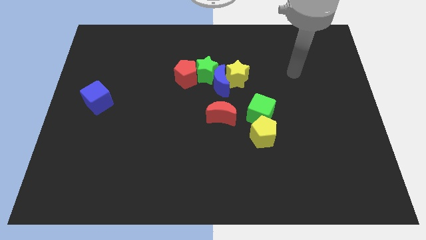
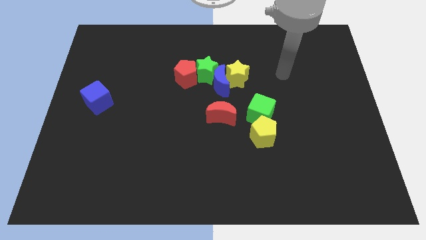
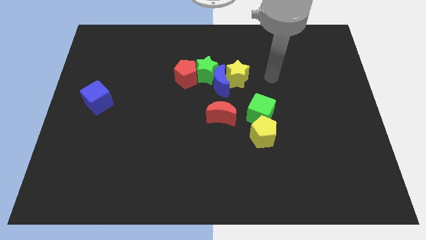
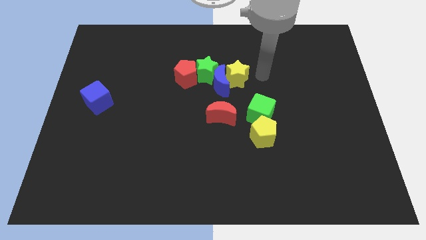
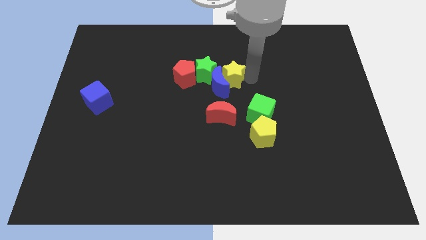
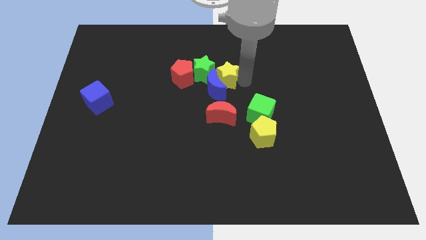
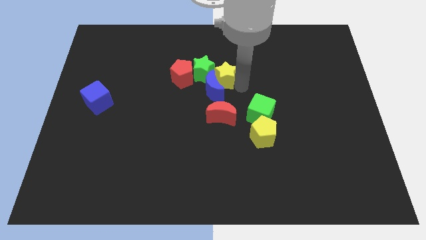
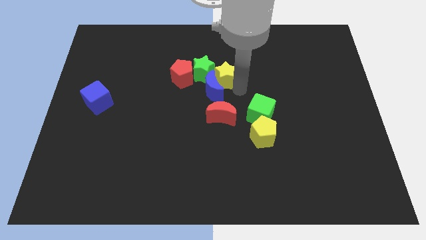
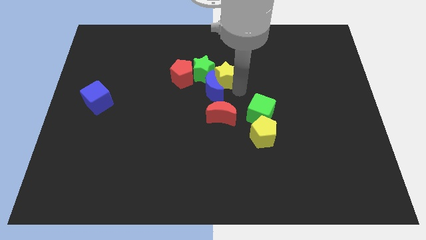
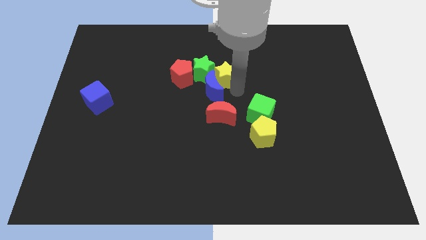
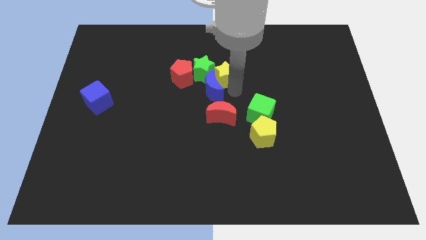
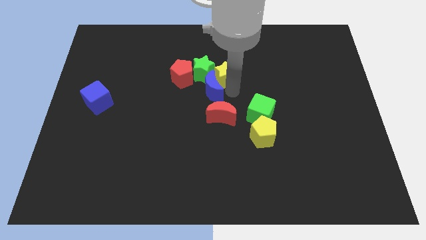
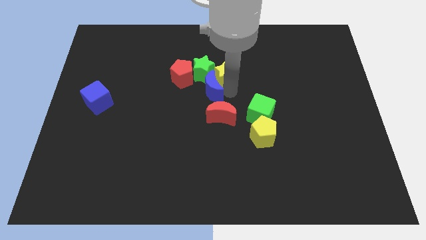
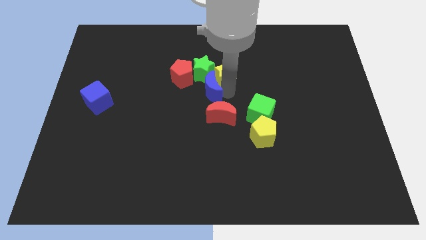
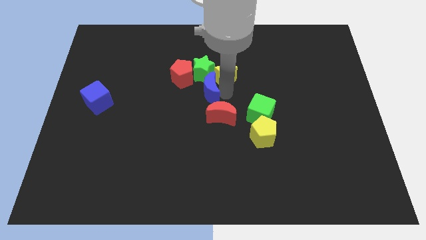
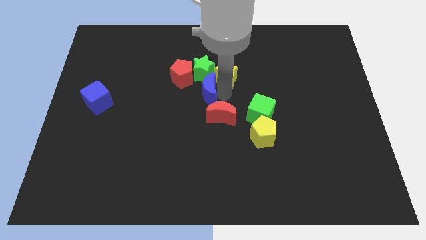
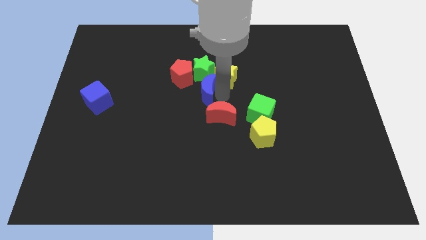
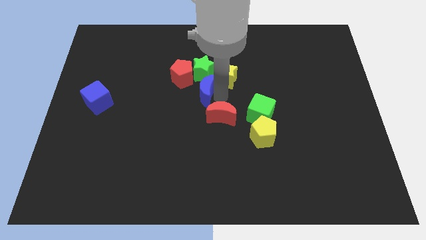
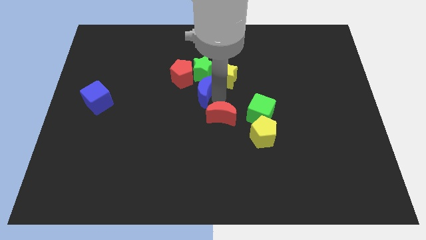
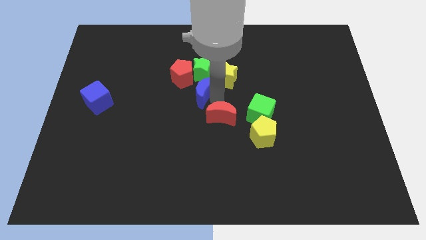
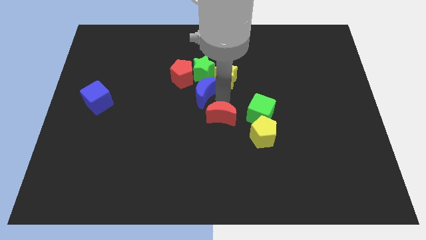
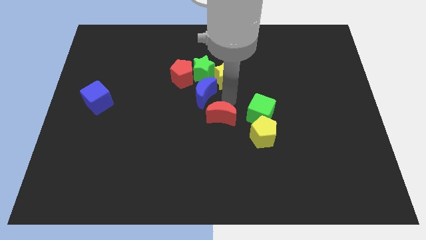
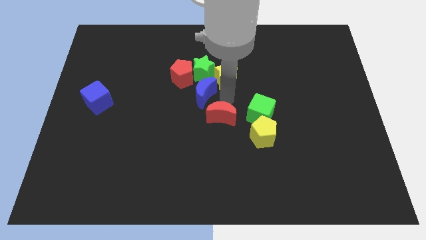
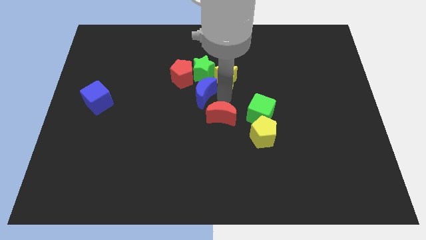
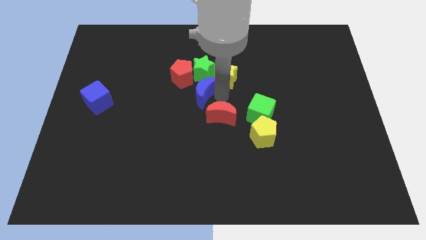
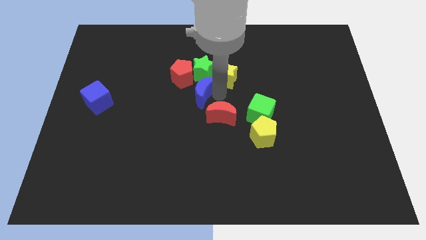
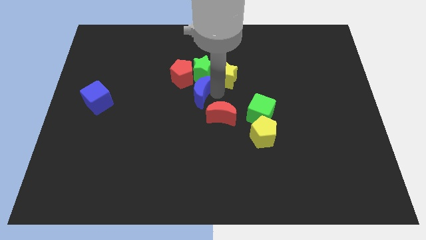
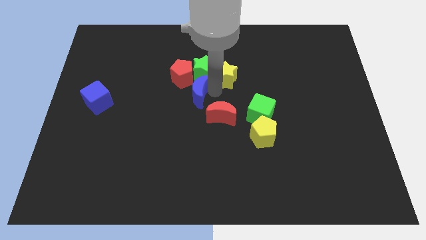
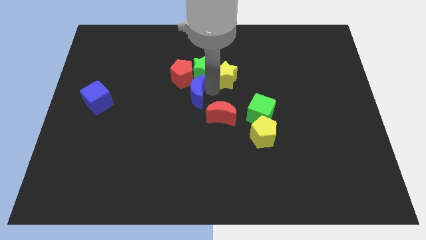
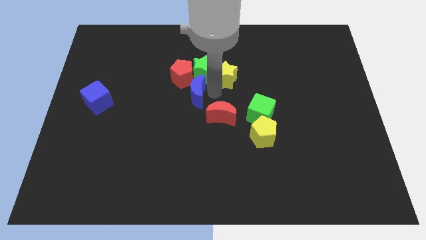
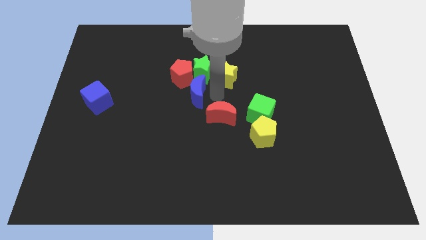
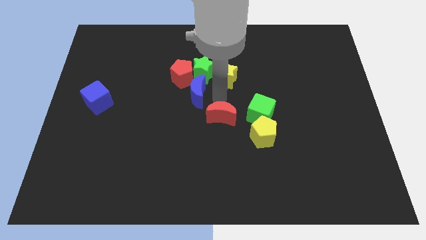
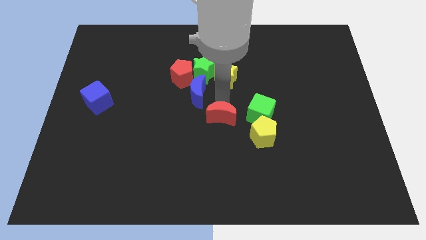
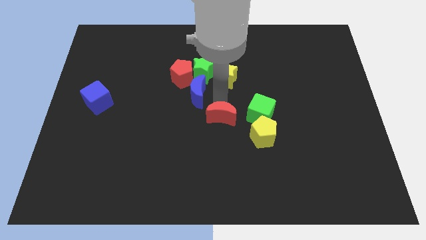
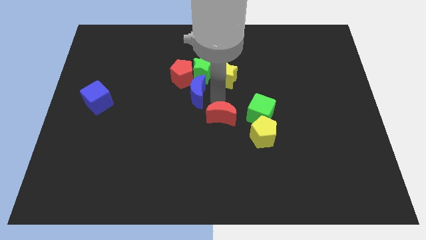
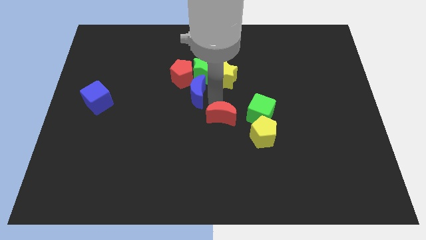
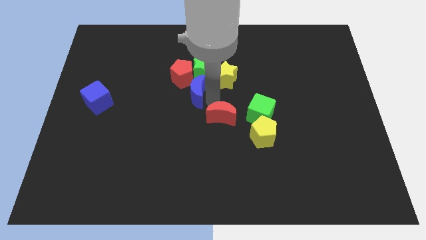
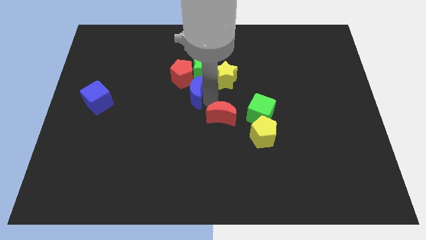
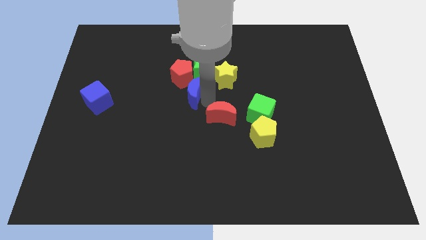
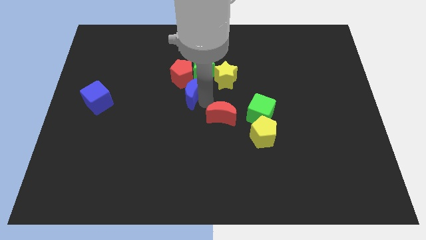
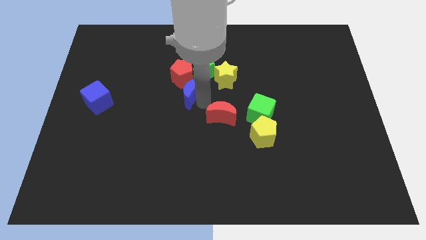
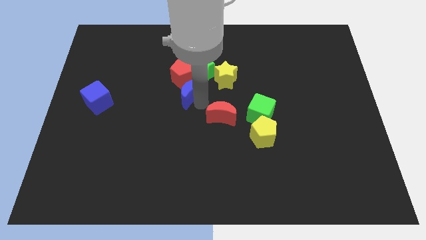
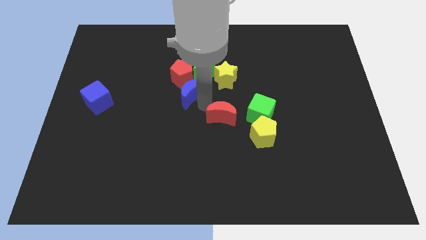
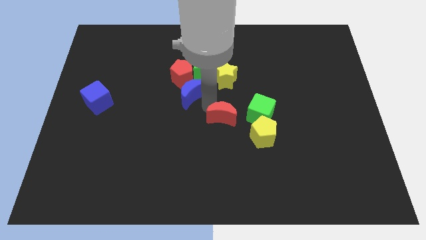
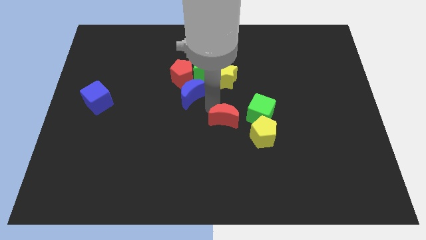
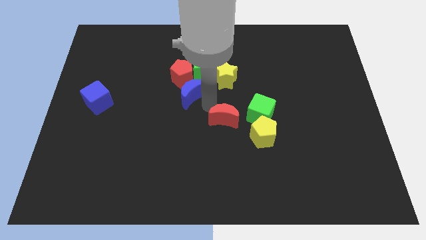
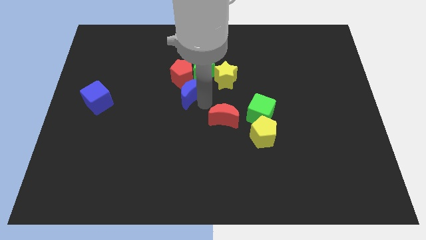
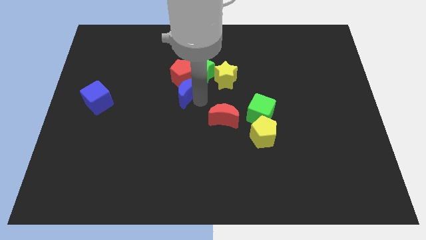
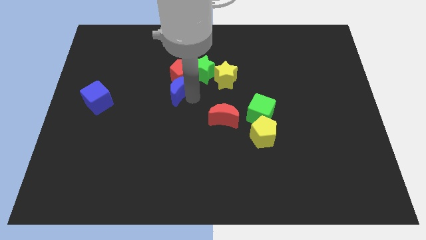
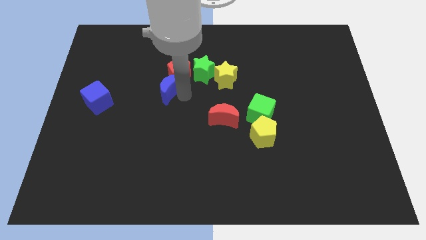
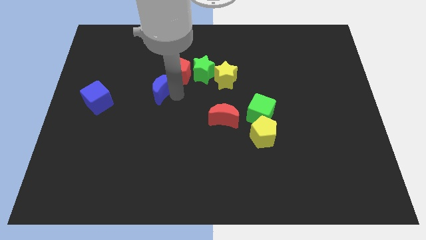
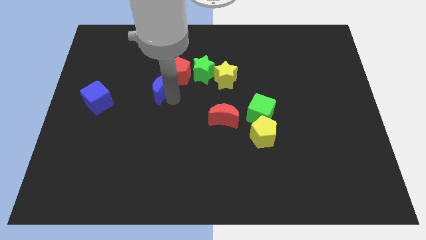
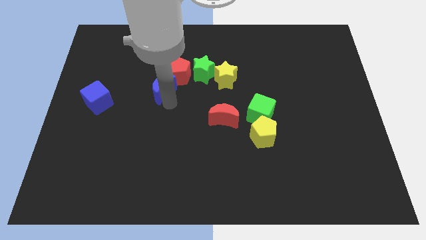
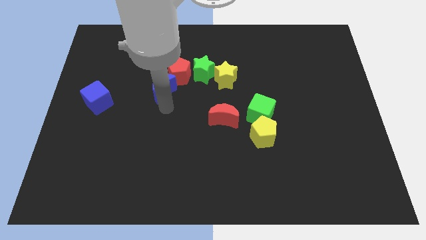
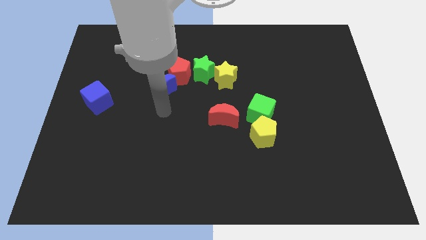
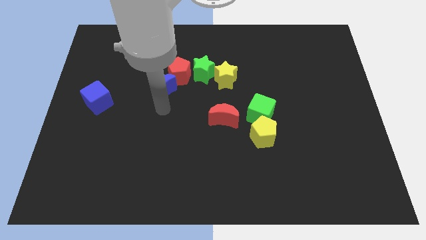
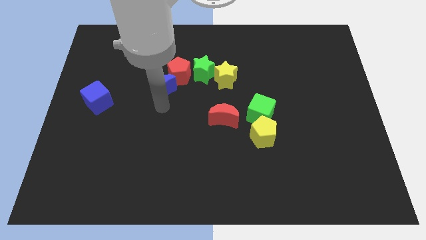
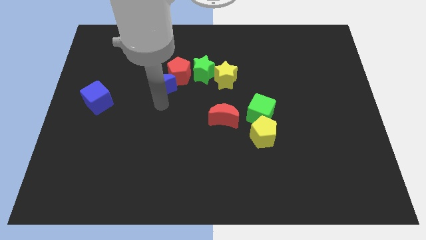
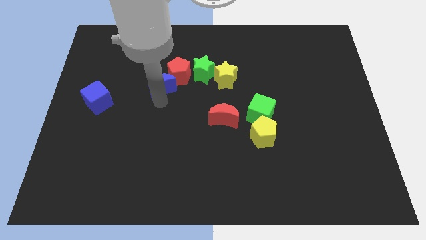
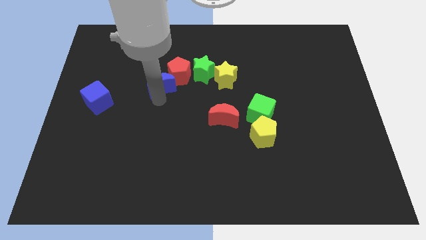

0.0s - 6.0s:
move the blue moon just left of the green star

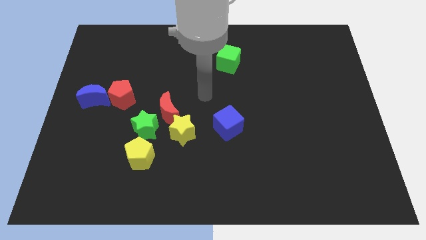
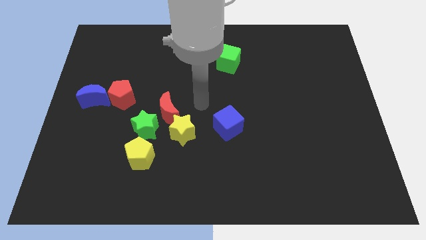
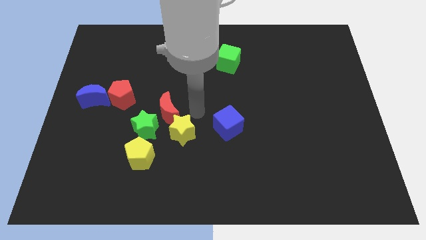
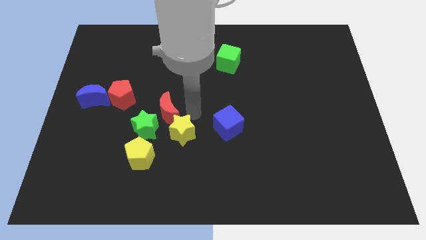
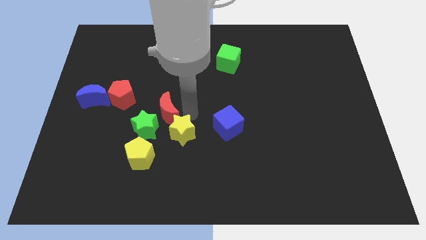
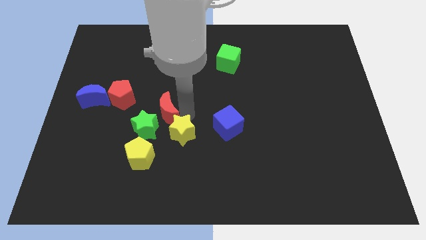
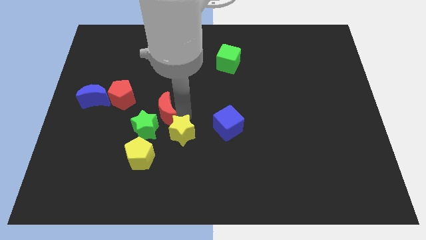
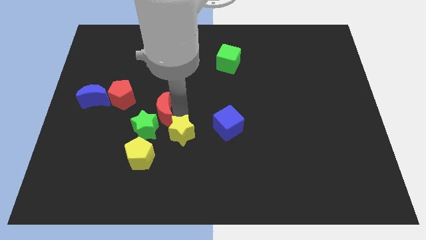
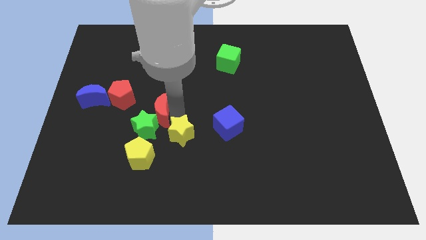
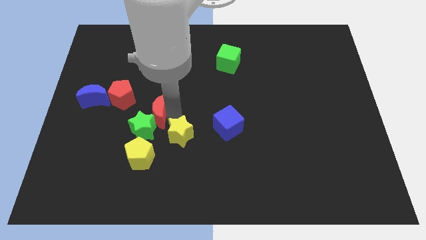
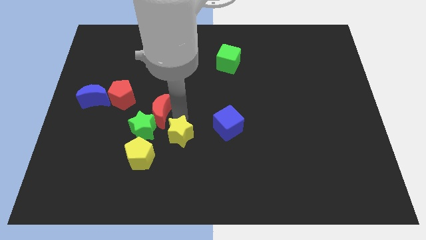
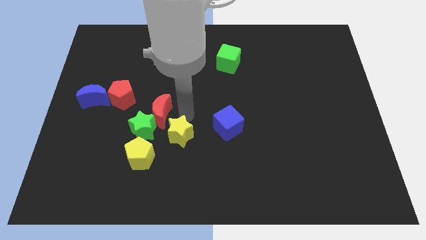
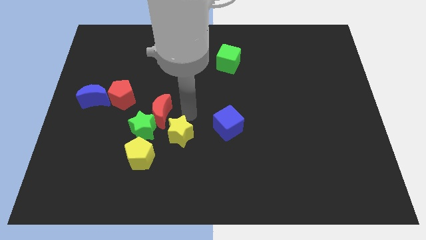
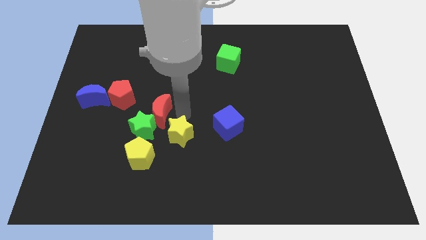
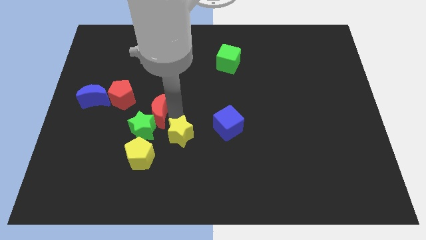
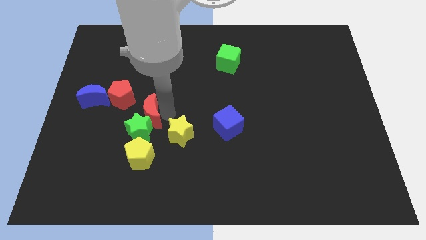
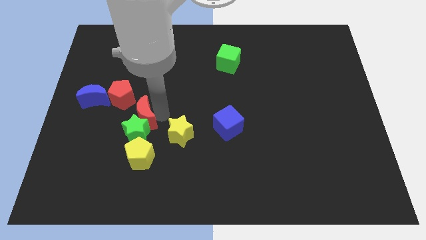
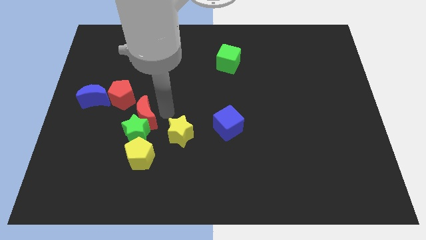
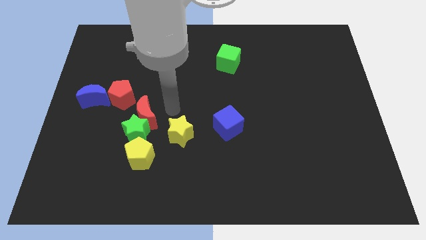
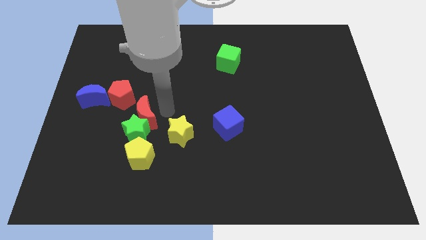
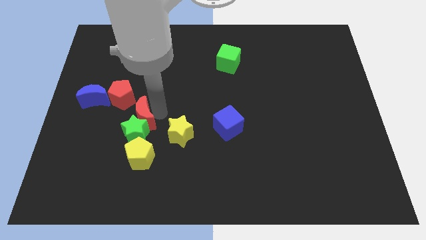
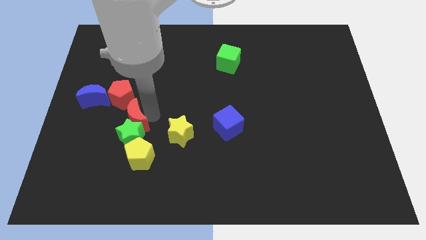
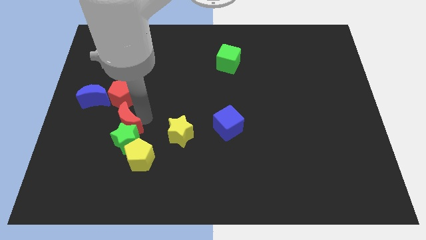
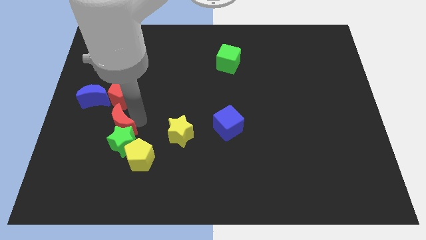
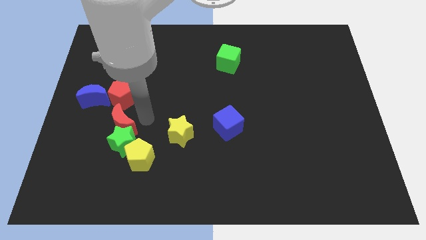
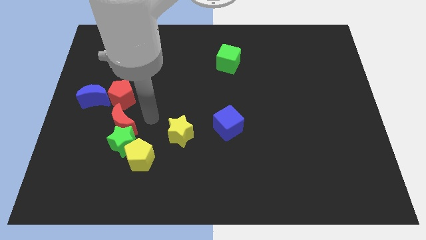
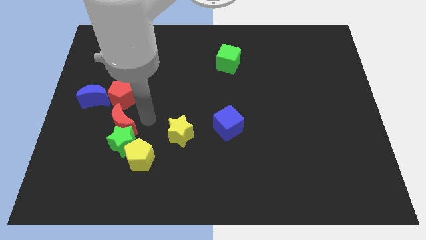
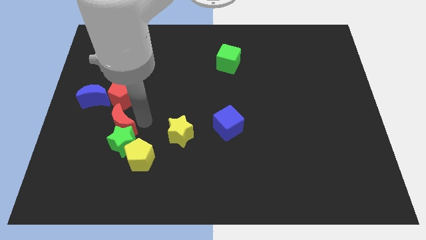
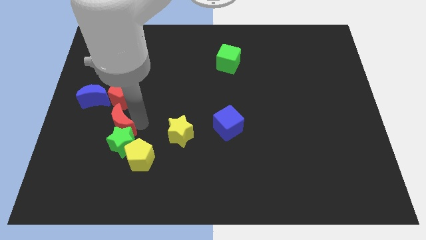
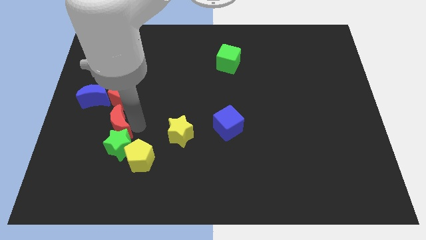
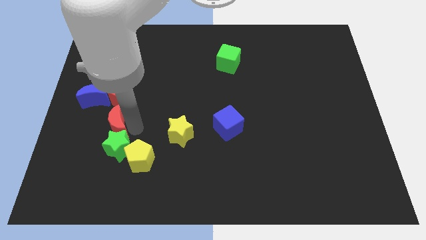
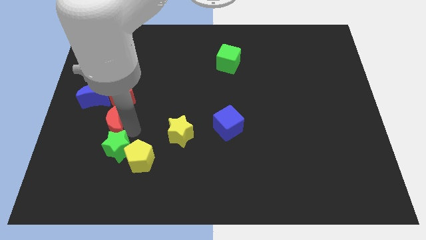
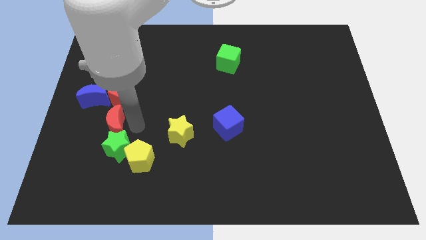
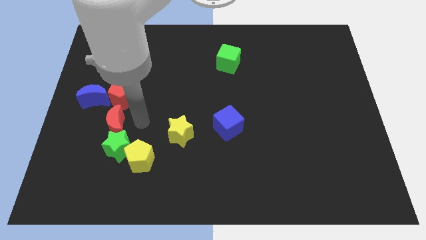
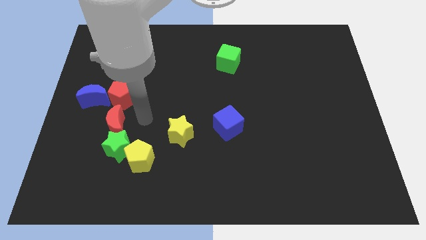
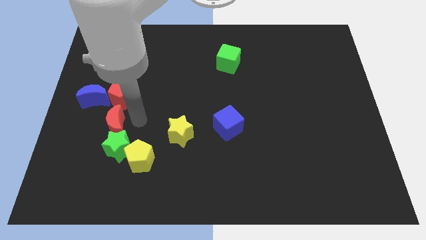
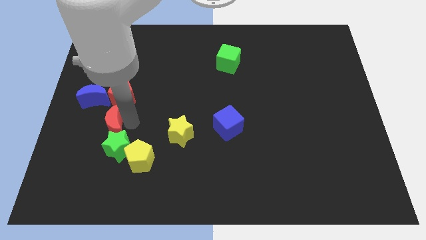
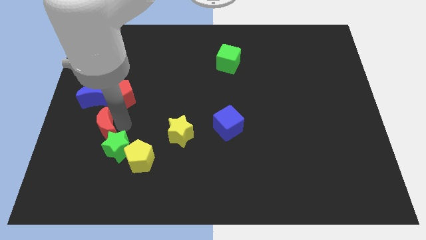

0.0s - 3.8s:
put the red moon below the blue moon
